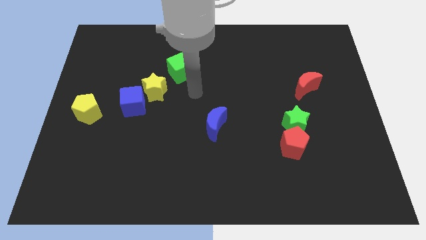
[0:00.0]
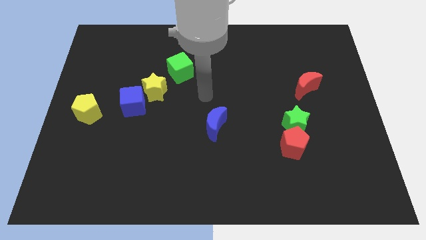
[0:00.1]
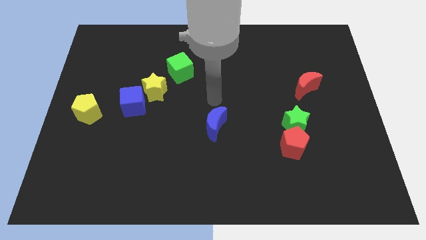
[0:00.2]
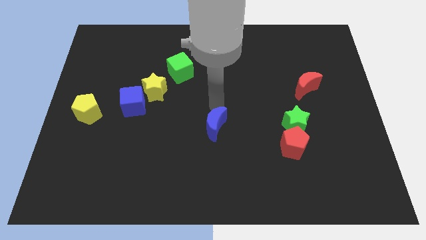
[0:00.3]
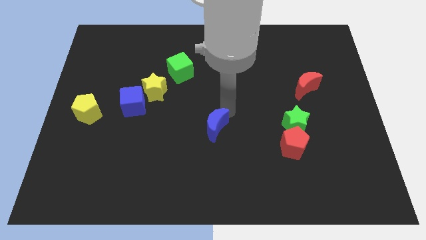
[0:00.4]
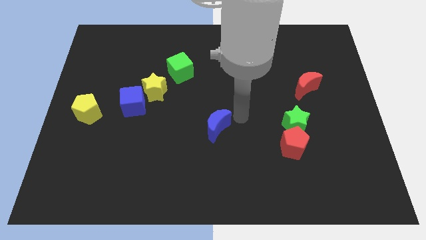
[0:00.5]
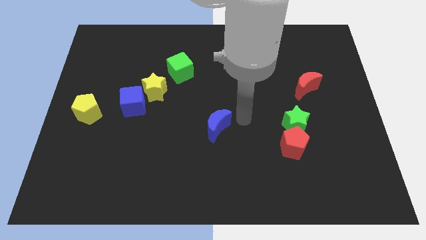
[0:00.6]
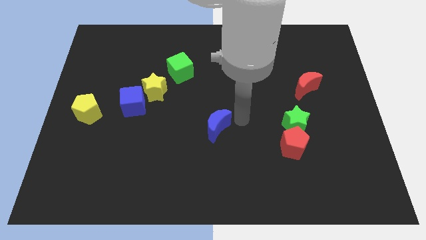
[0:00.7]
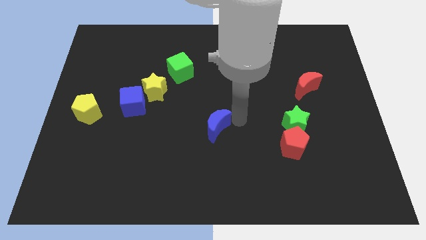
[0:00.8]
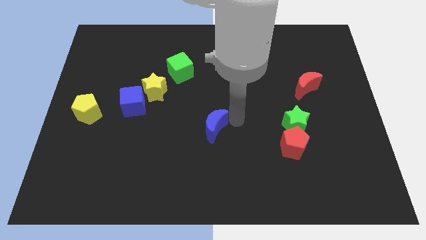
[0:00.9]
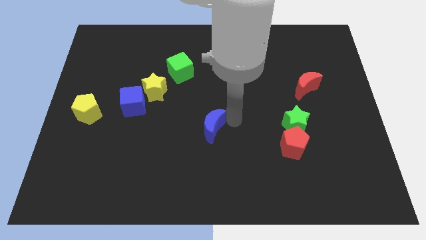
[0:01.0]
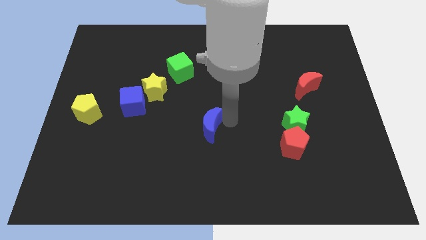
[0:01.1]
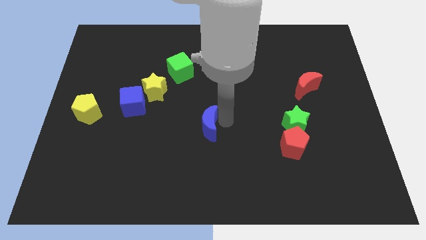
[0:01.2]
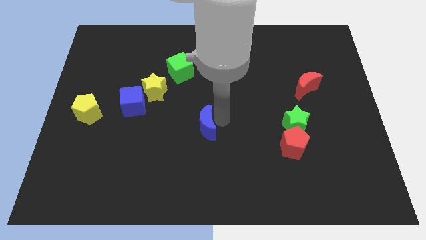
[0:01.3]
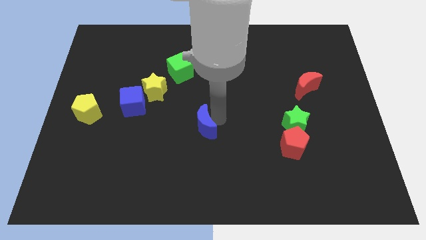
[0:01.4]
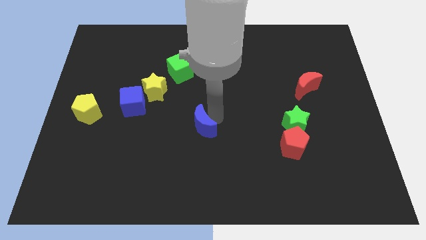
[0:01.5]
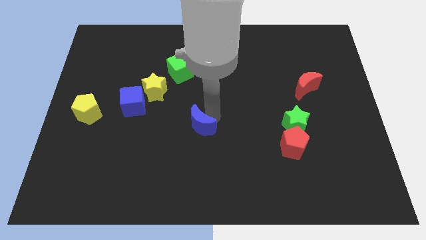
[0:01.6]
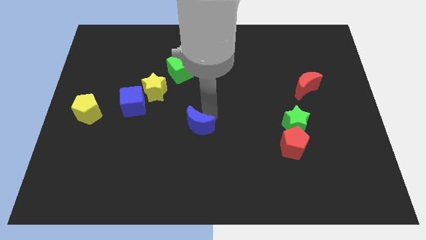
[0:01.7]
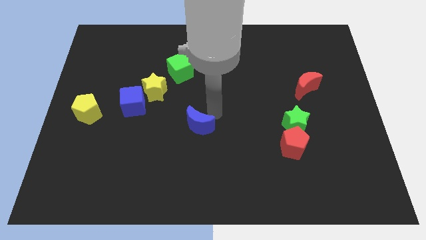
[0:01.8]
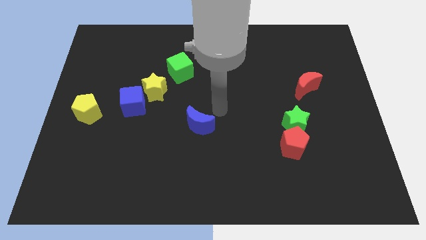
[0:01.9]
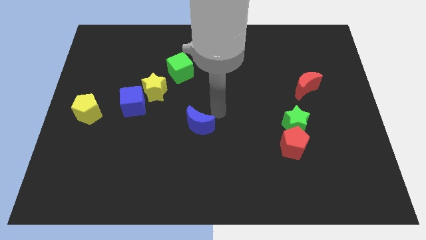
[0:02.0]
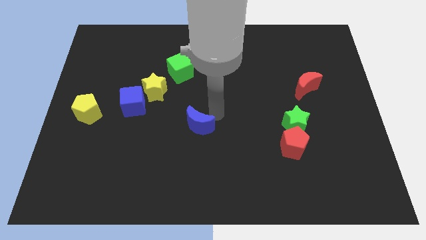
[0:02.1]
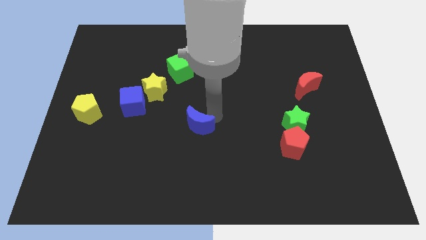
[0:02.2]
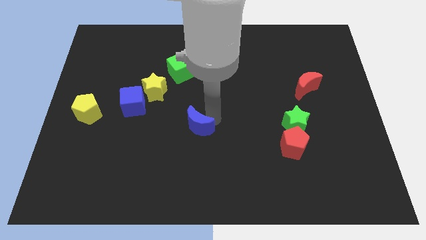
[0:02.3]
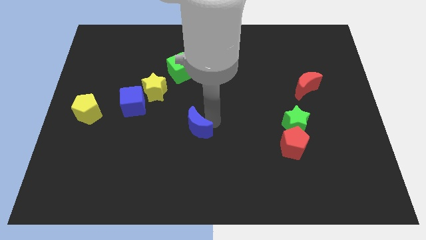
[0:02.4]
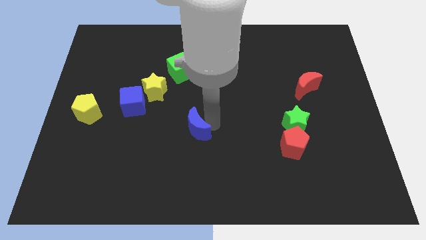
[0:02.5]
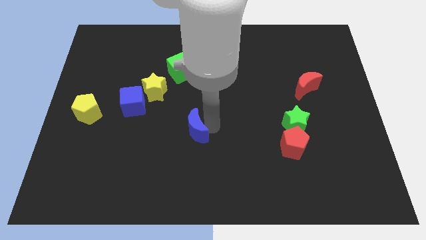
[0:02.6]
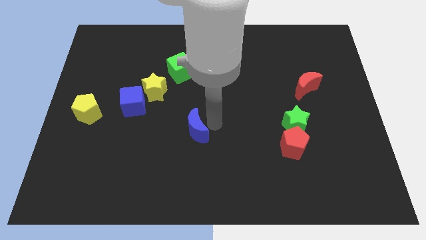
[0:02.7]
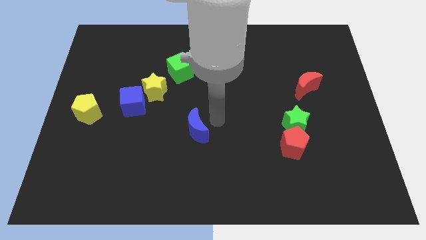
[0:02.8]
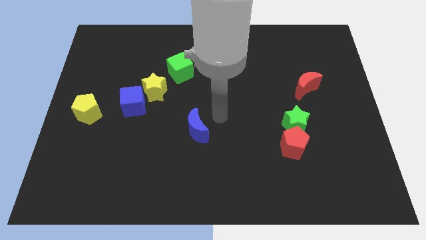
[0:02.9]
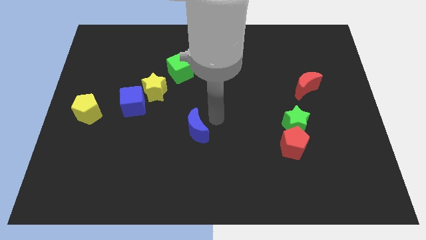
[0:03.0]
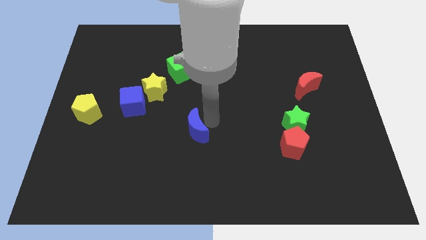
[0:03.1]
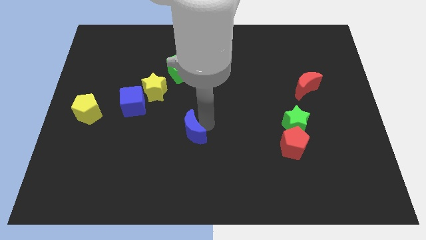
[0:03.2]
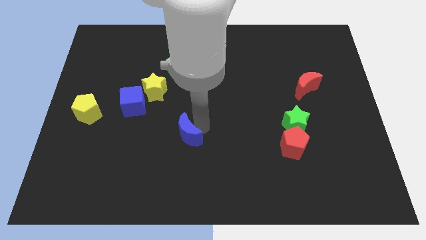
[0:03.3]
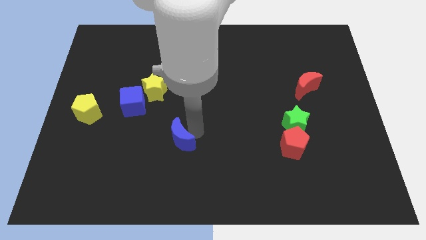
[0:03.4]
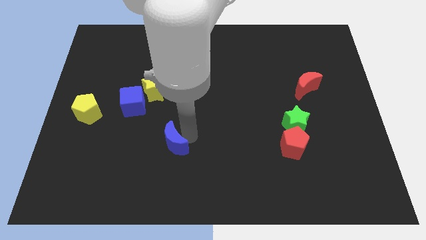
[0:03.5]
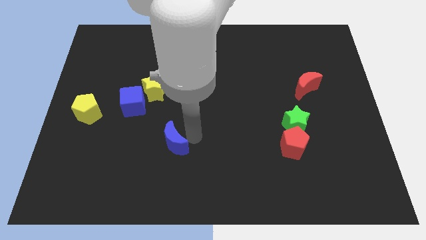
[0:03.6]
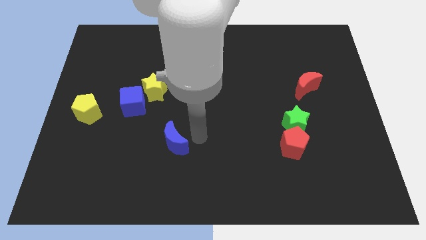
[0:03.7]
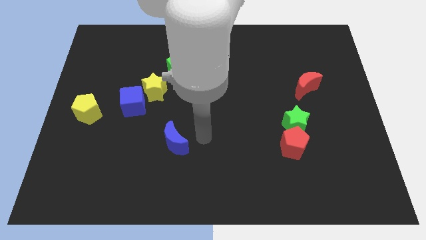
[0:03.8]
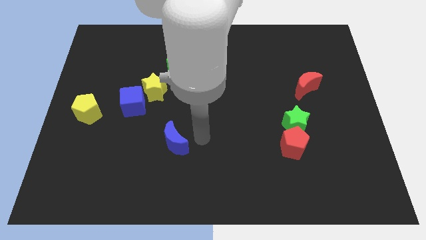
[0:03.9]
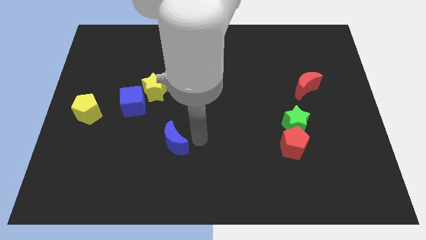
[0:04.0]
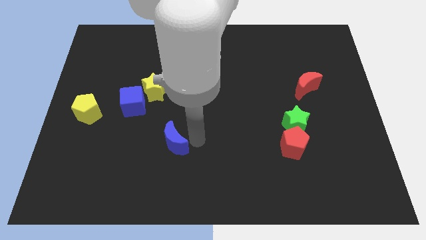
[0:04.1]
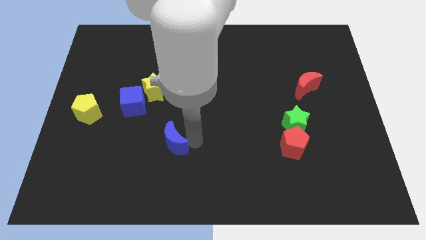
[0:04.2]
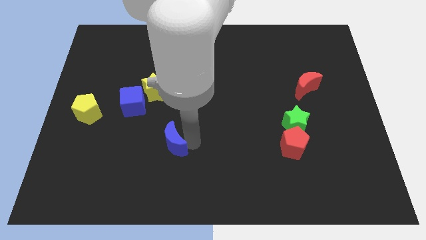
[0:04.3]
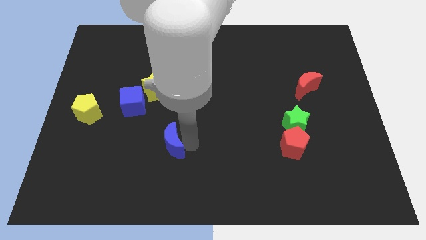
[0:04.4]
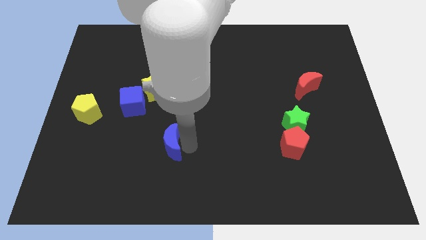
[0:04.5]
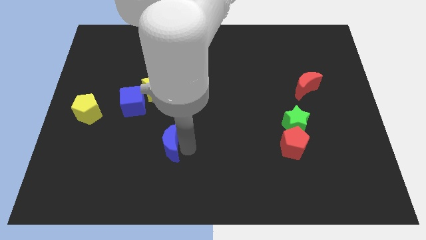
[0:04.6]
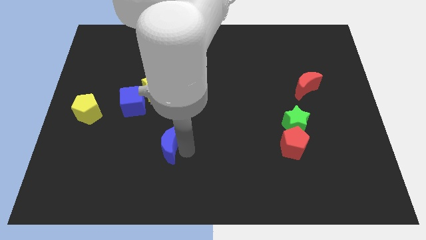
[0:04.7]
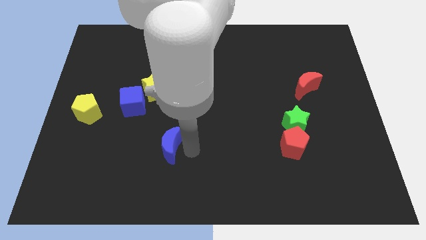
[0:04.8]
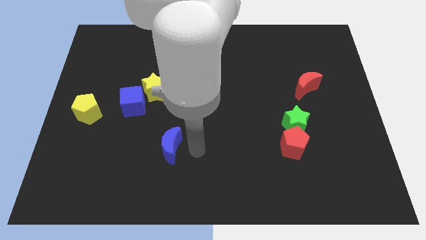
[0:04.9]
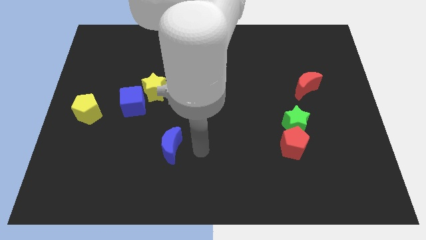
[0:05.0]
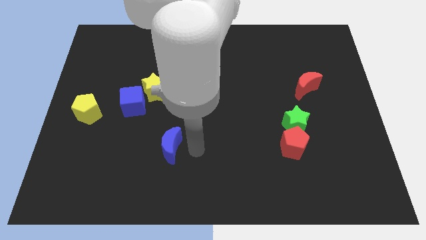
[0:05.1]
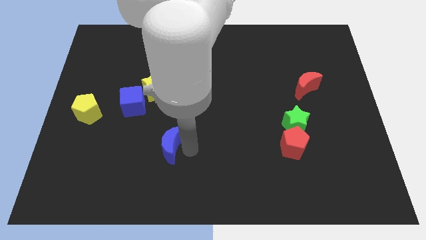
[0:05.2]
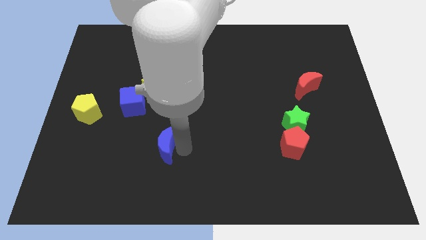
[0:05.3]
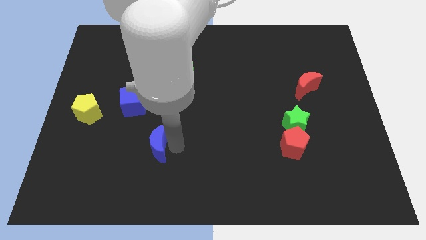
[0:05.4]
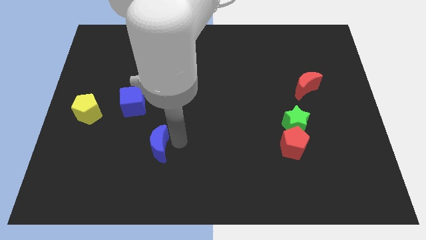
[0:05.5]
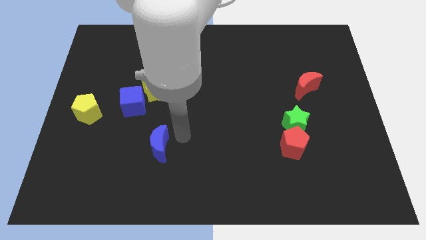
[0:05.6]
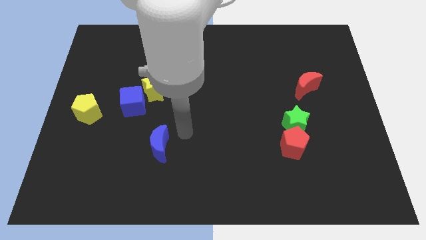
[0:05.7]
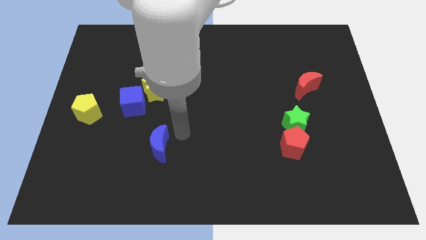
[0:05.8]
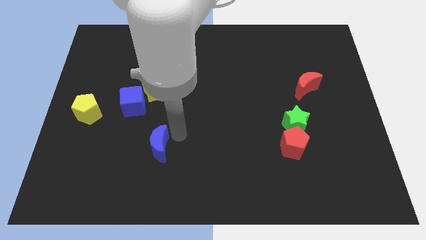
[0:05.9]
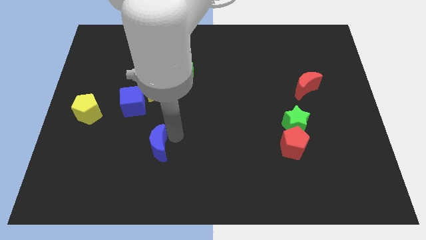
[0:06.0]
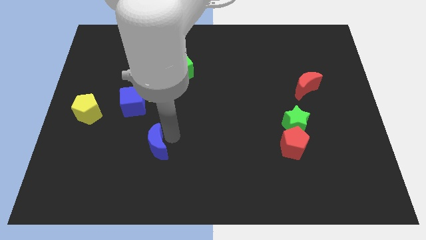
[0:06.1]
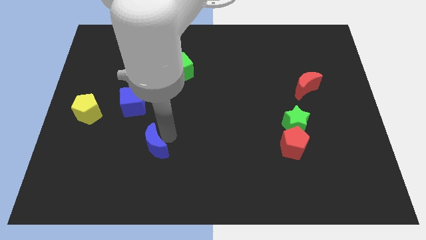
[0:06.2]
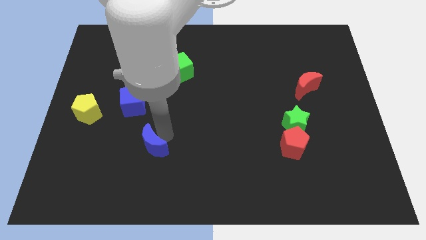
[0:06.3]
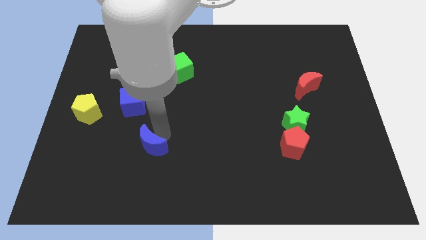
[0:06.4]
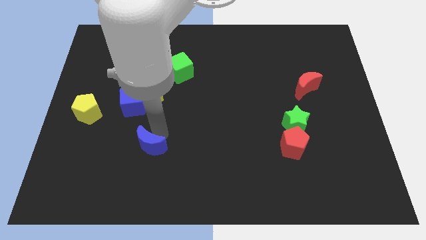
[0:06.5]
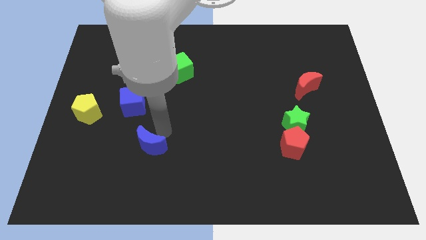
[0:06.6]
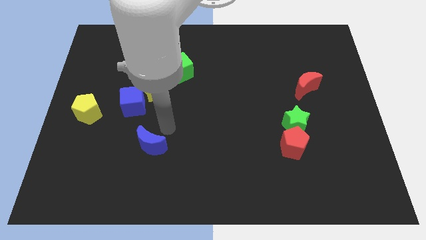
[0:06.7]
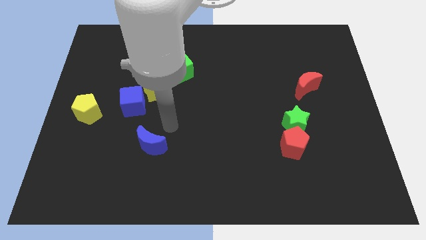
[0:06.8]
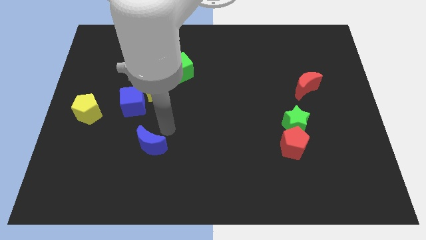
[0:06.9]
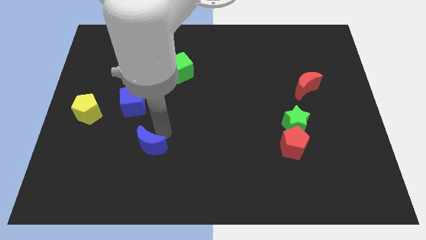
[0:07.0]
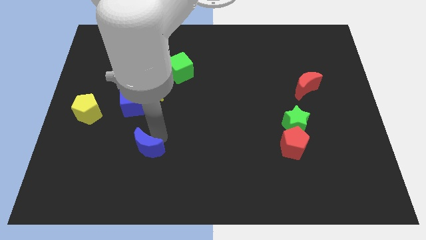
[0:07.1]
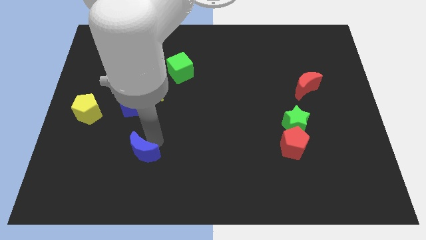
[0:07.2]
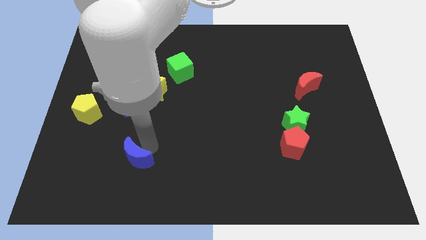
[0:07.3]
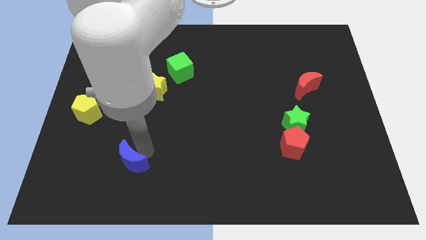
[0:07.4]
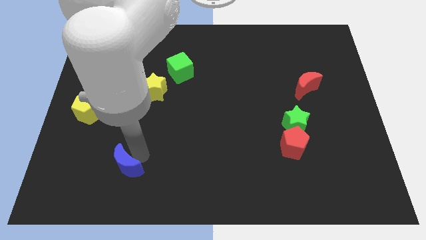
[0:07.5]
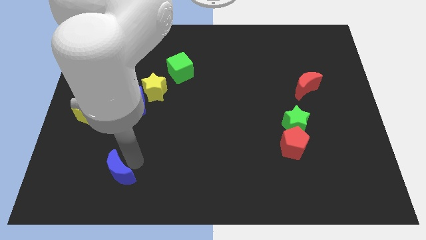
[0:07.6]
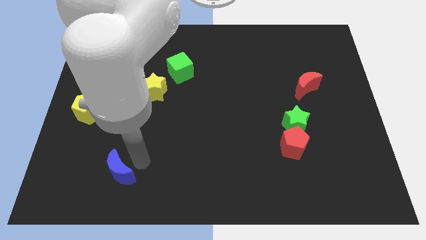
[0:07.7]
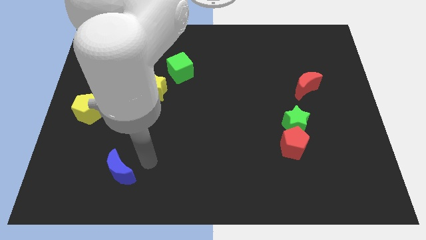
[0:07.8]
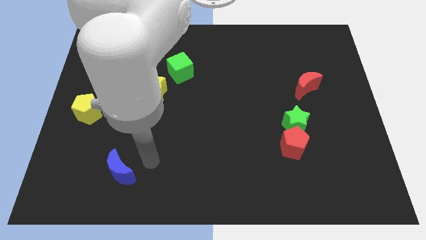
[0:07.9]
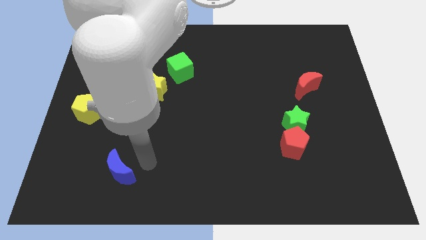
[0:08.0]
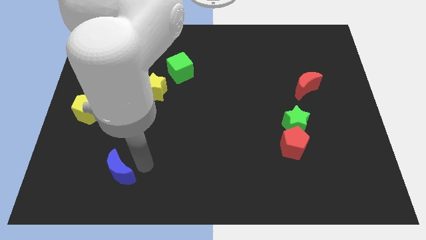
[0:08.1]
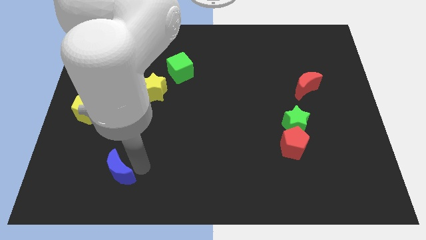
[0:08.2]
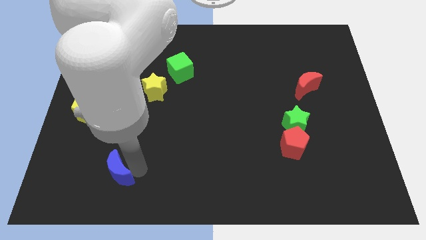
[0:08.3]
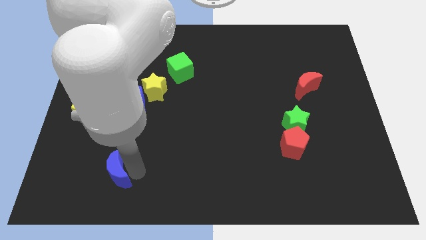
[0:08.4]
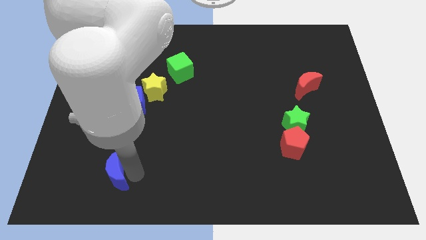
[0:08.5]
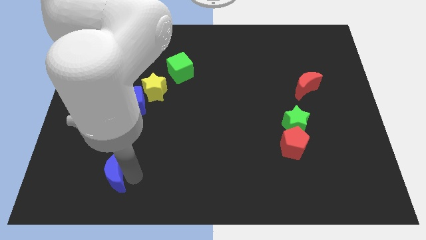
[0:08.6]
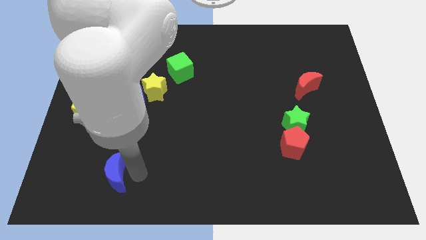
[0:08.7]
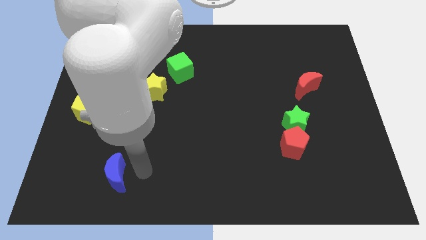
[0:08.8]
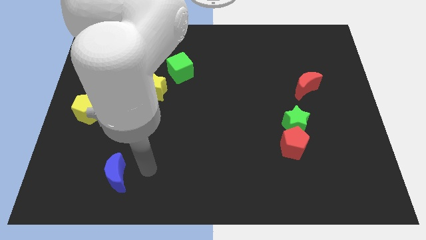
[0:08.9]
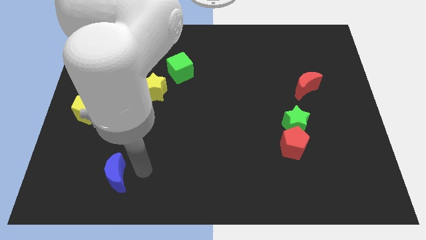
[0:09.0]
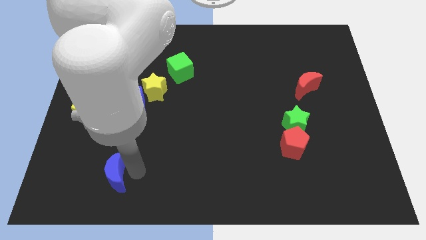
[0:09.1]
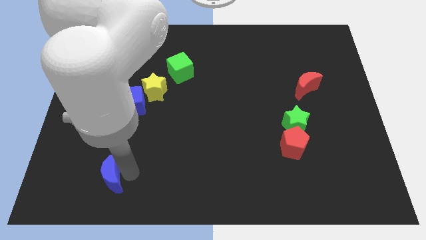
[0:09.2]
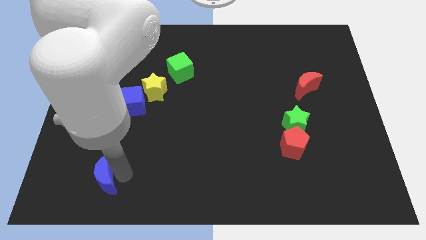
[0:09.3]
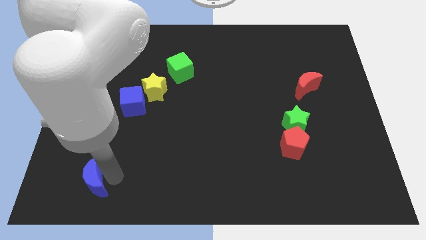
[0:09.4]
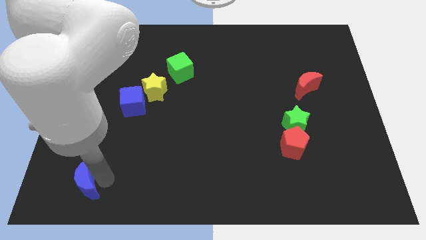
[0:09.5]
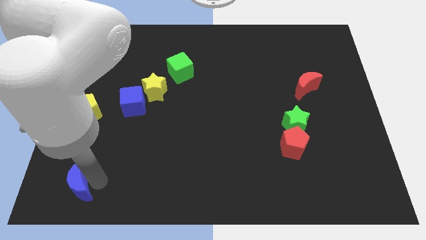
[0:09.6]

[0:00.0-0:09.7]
put the blue moon to the bottom left of the board
